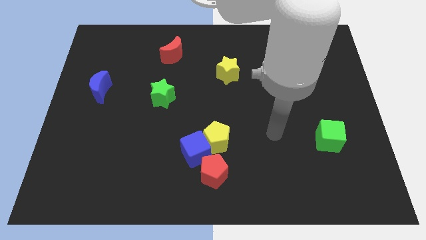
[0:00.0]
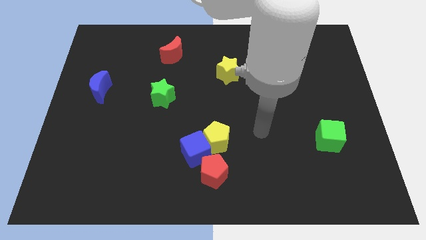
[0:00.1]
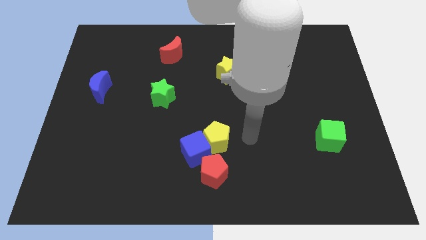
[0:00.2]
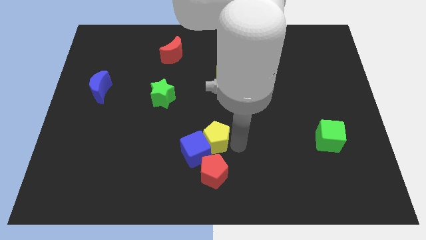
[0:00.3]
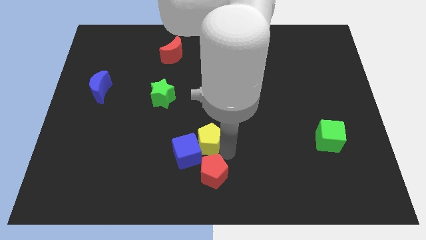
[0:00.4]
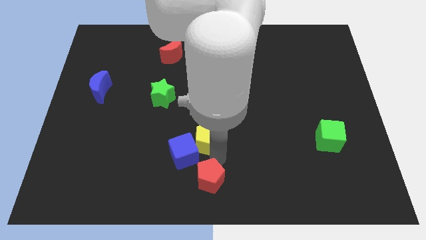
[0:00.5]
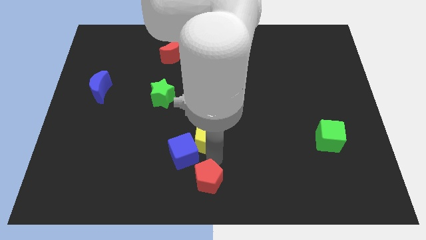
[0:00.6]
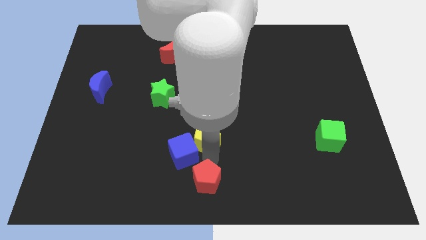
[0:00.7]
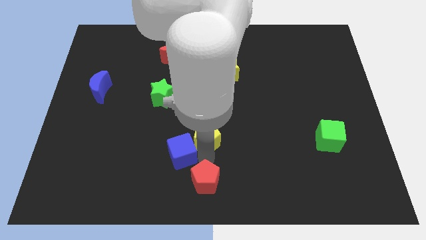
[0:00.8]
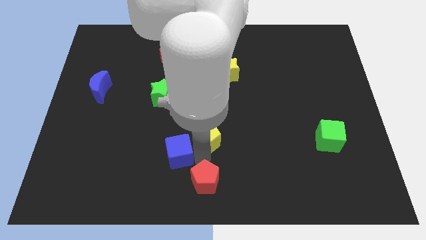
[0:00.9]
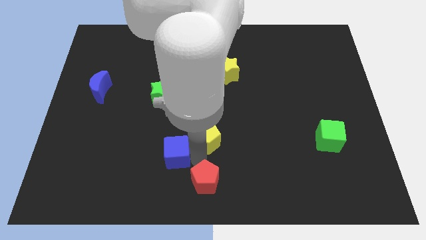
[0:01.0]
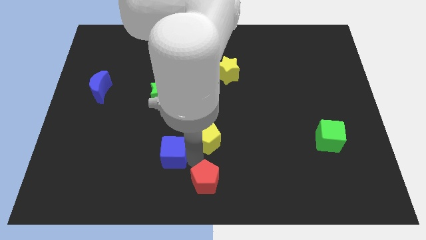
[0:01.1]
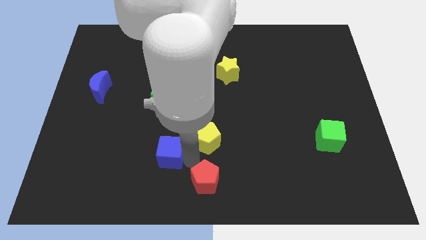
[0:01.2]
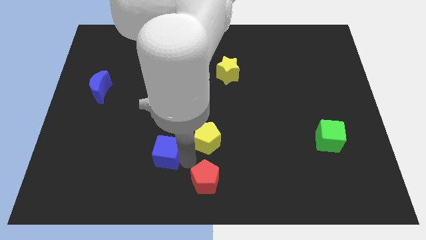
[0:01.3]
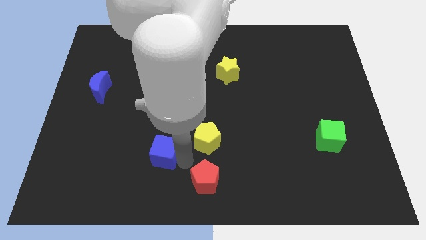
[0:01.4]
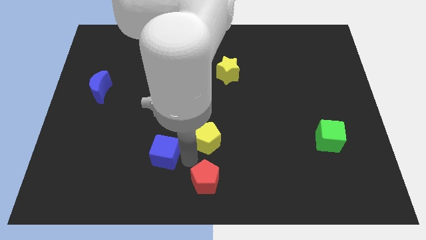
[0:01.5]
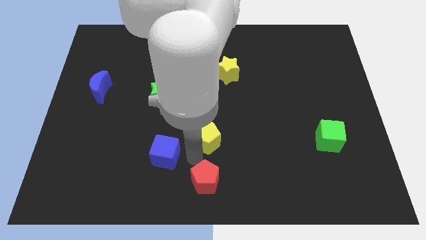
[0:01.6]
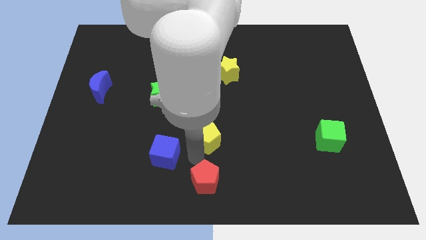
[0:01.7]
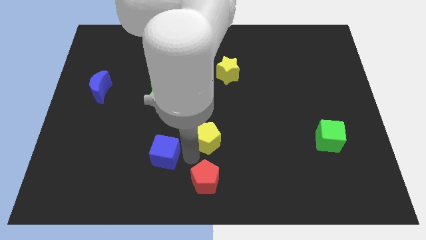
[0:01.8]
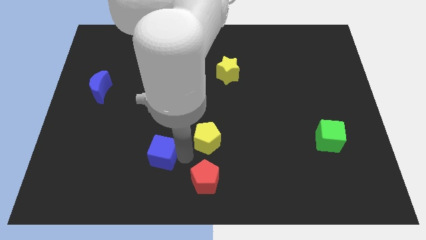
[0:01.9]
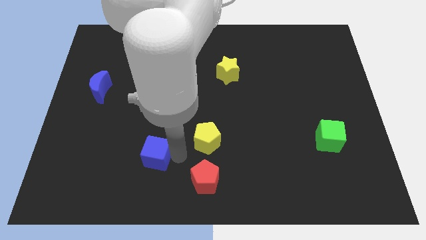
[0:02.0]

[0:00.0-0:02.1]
move the blue cube away from the yellow pentagon and red pentagon

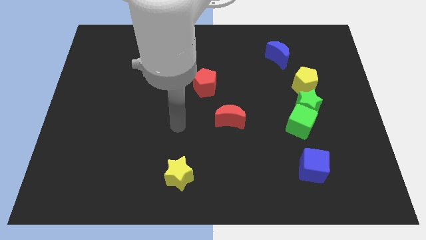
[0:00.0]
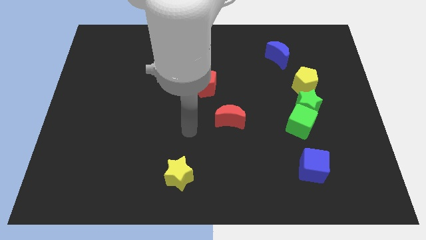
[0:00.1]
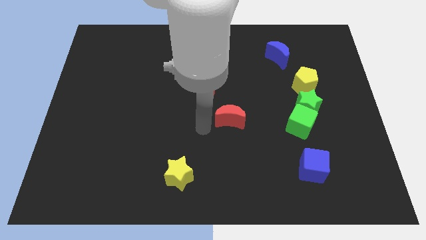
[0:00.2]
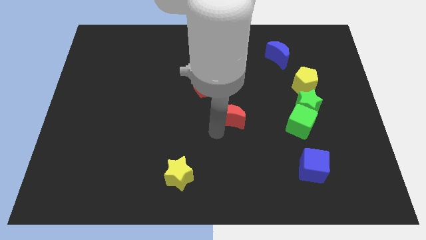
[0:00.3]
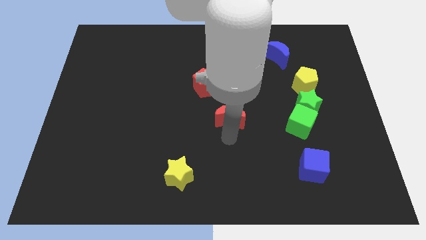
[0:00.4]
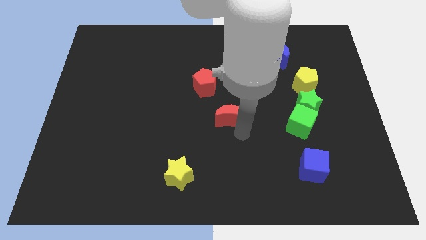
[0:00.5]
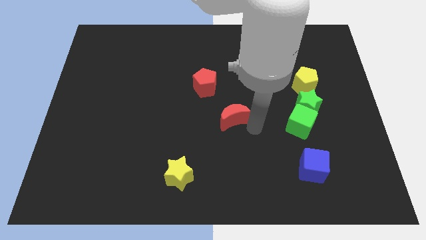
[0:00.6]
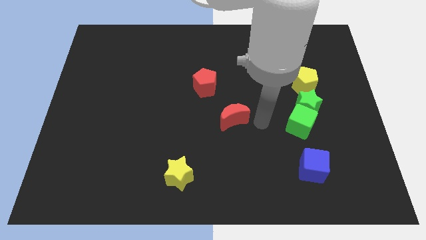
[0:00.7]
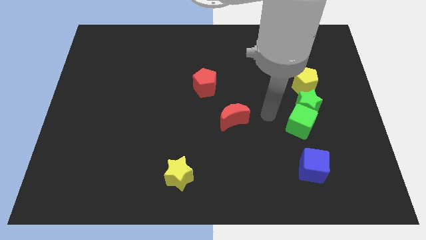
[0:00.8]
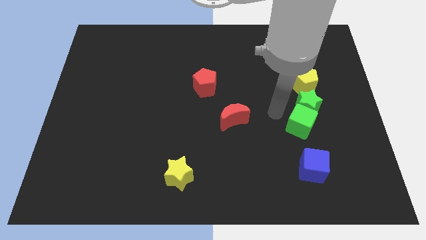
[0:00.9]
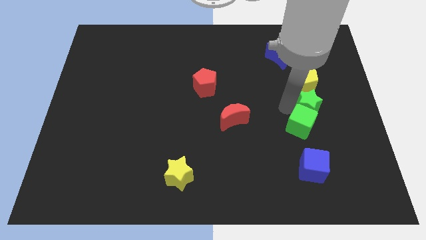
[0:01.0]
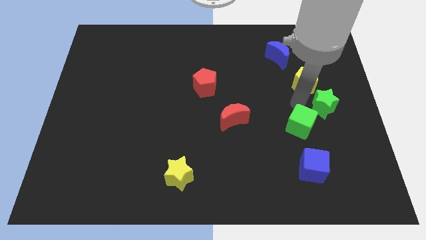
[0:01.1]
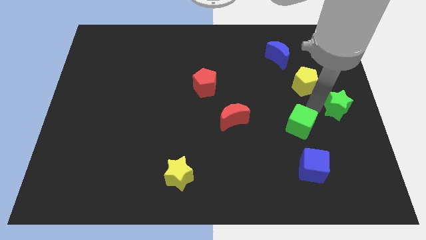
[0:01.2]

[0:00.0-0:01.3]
separate the green cube from the green star

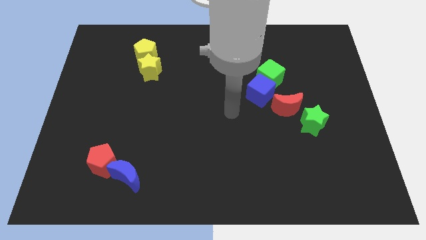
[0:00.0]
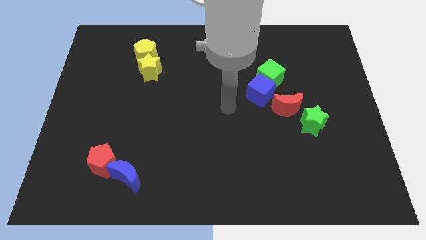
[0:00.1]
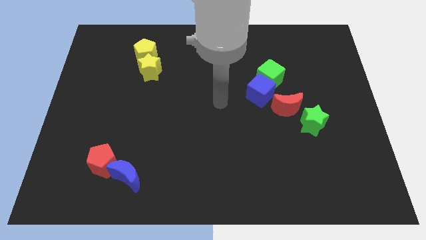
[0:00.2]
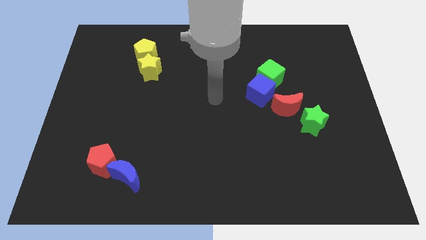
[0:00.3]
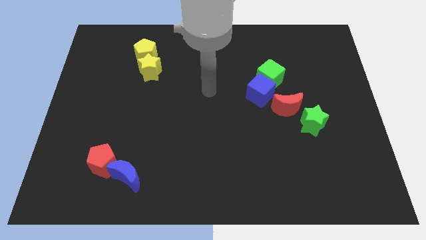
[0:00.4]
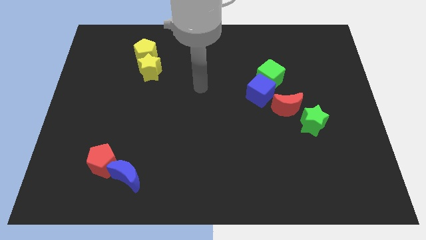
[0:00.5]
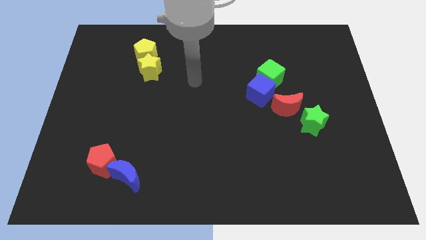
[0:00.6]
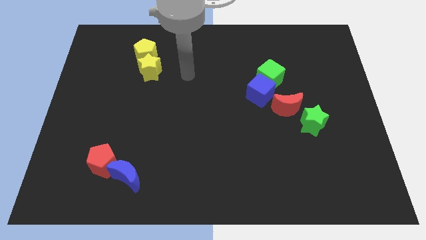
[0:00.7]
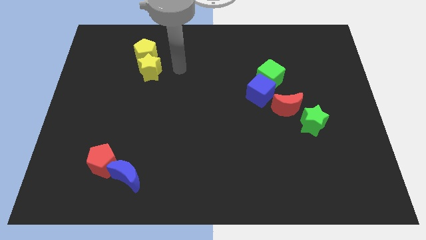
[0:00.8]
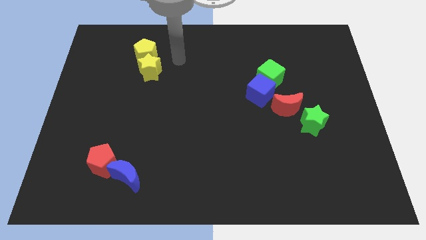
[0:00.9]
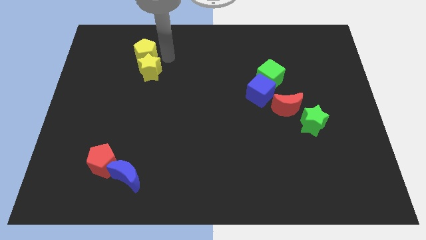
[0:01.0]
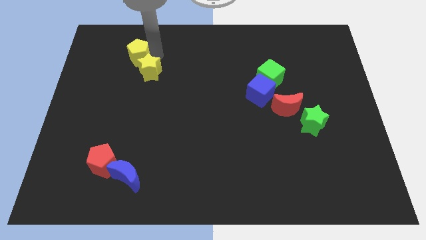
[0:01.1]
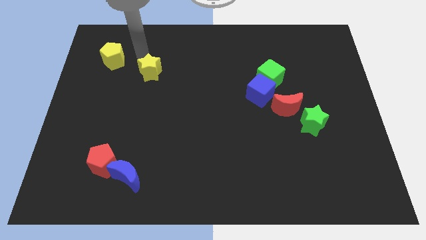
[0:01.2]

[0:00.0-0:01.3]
separate the yellow star from the yellow pentagon

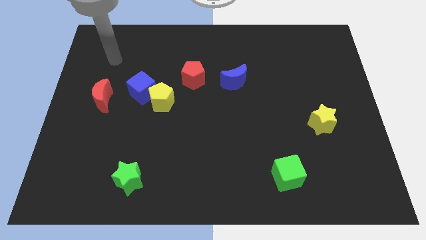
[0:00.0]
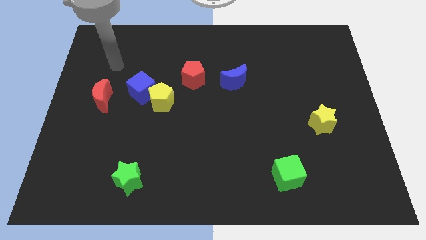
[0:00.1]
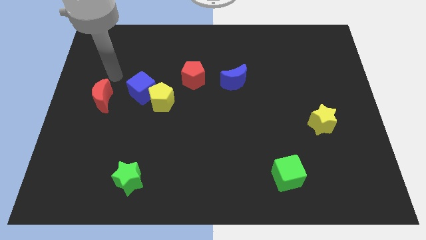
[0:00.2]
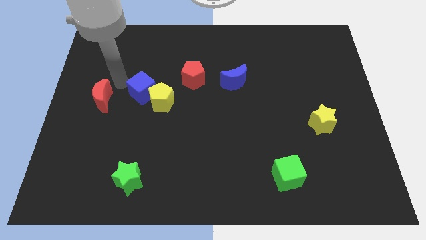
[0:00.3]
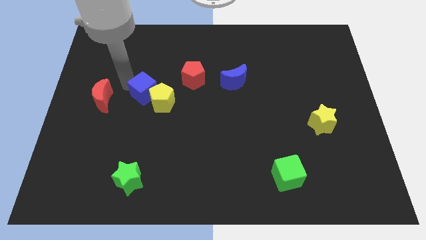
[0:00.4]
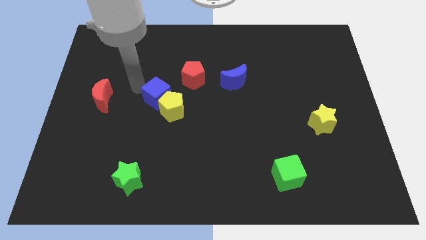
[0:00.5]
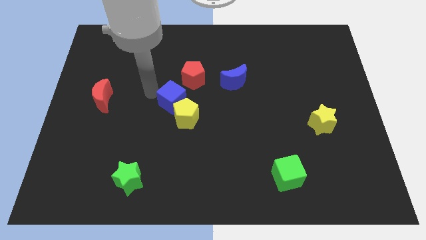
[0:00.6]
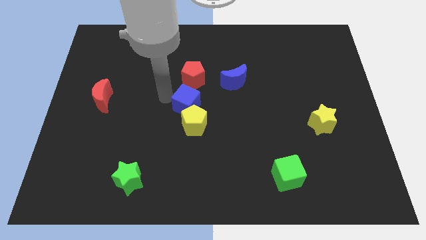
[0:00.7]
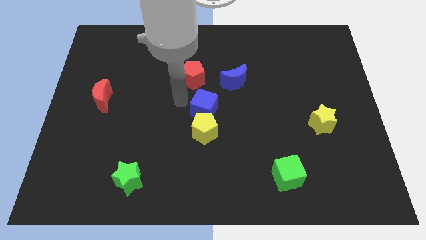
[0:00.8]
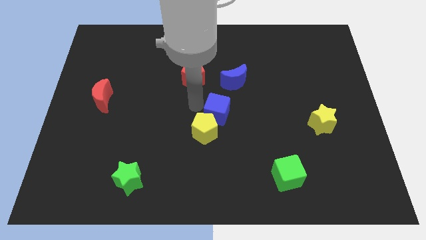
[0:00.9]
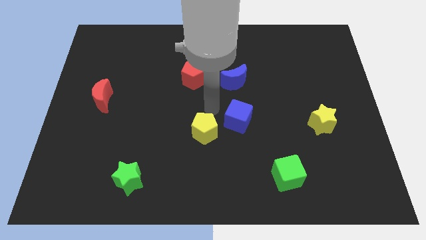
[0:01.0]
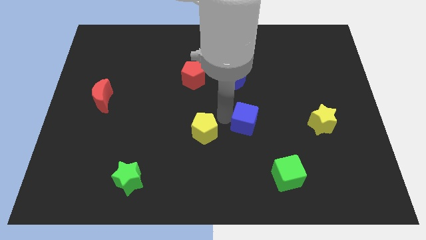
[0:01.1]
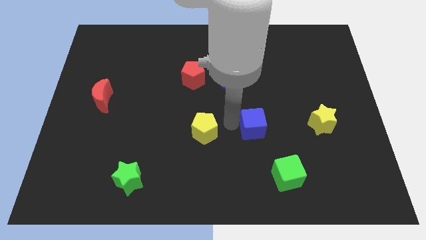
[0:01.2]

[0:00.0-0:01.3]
separate the yellow pentagon from the blue cube

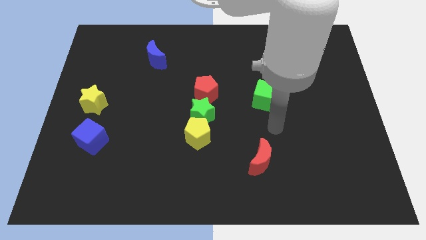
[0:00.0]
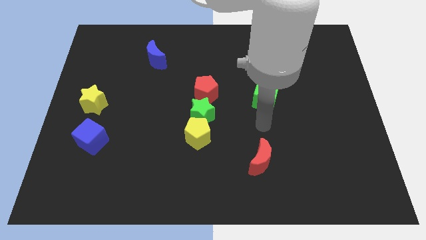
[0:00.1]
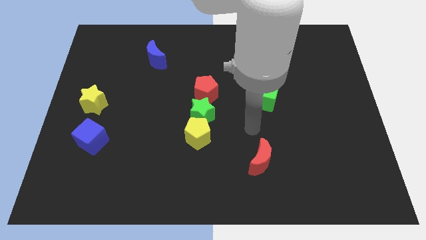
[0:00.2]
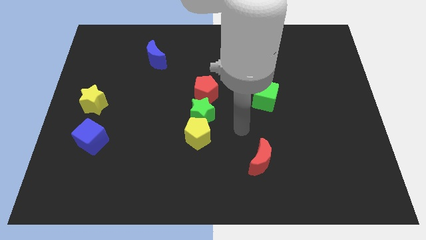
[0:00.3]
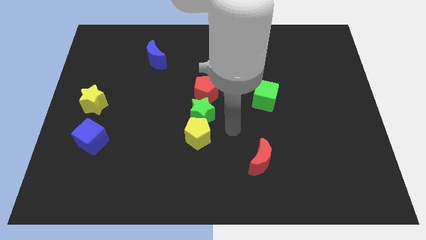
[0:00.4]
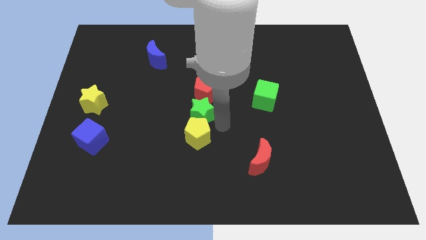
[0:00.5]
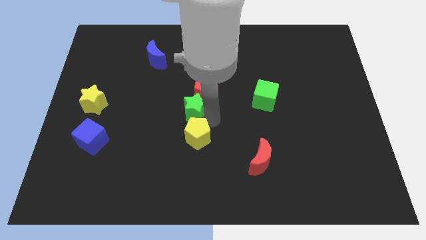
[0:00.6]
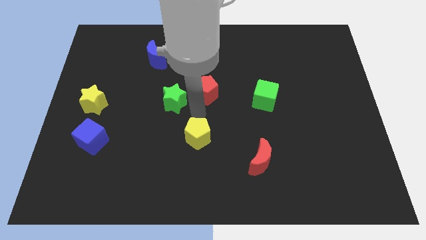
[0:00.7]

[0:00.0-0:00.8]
separate the yellow pentagon from the green star

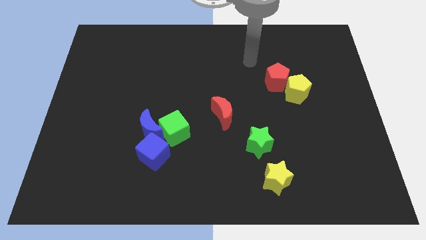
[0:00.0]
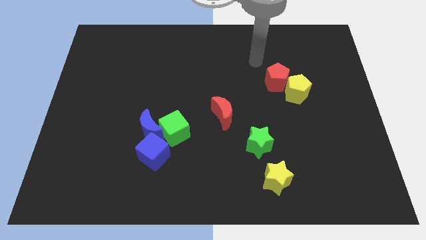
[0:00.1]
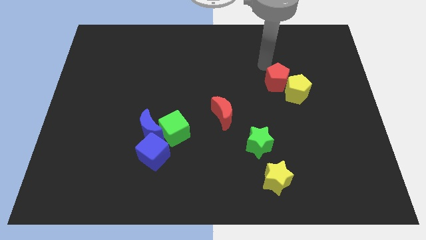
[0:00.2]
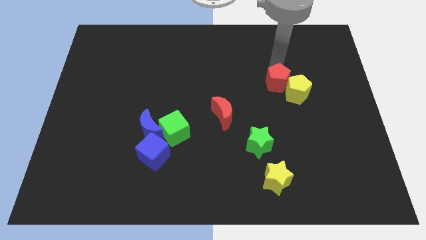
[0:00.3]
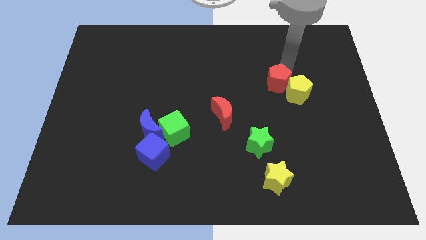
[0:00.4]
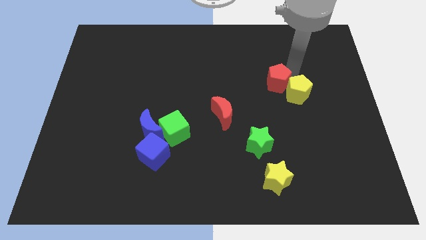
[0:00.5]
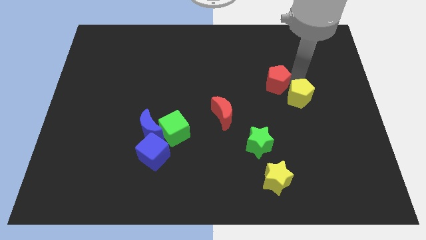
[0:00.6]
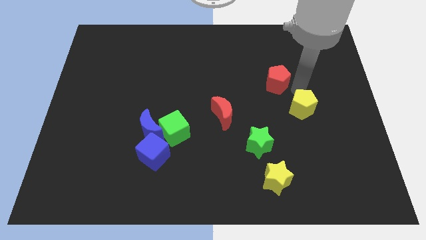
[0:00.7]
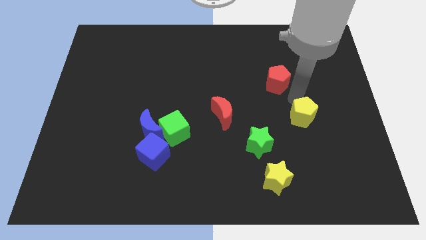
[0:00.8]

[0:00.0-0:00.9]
pull the red pentagon apart from the yellow pentagon

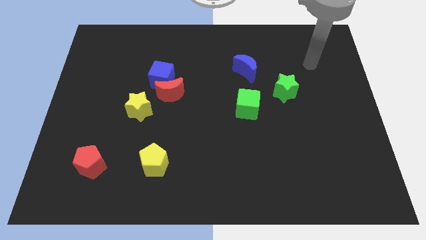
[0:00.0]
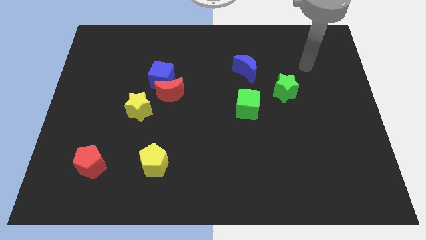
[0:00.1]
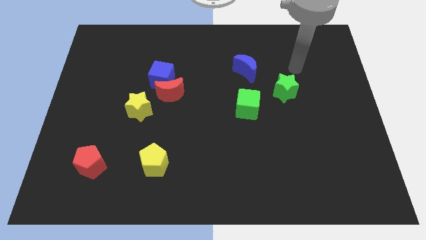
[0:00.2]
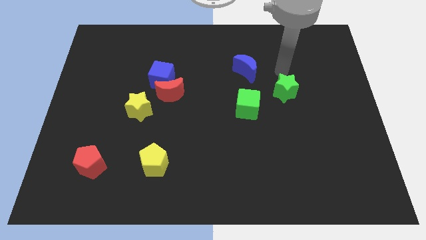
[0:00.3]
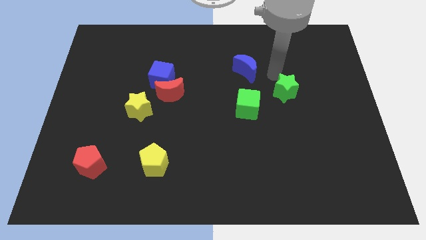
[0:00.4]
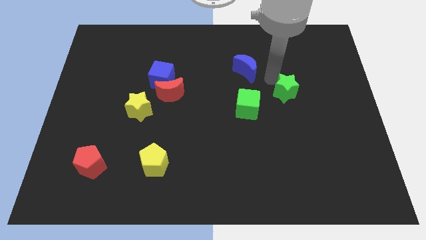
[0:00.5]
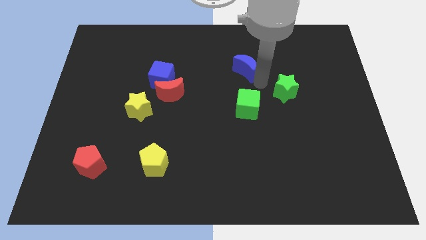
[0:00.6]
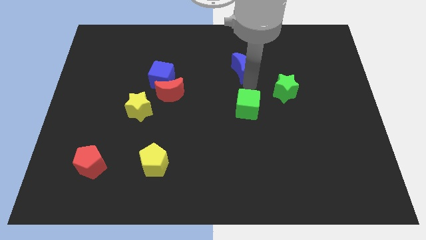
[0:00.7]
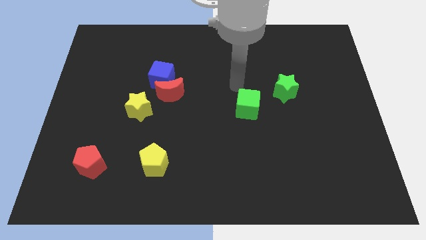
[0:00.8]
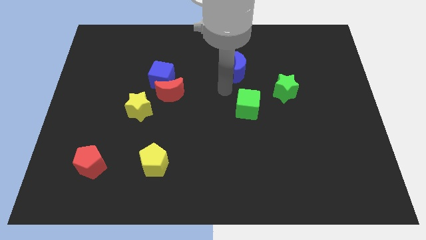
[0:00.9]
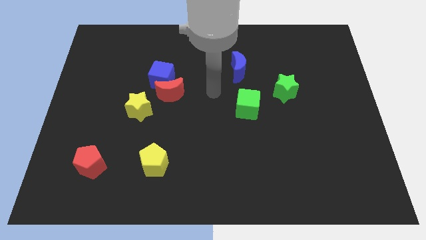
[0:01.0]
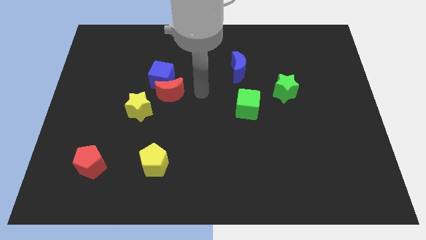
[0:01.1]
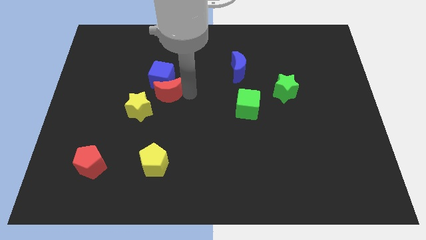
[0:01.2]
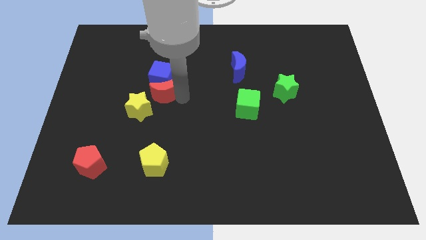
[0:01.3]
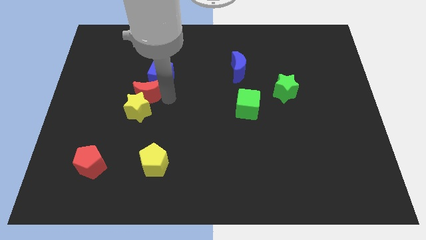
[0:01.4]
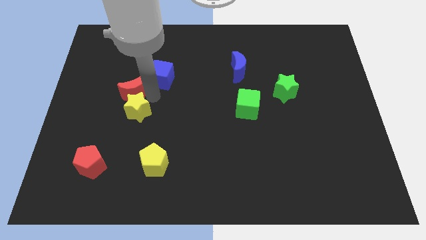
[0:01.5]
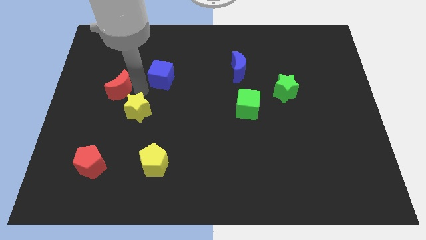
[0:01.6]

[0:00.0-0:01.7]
pull the blue cube apart from the red moon
